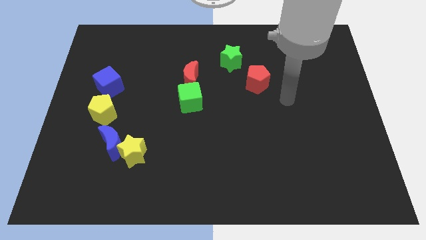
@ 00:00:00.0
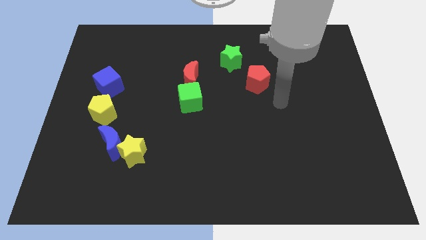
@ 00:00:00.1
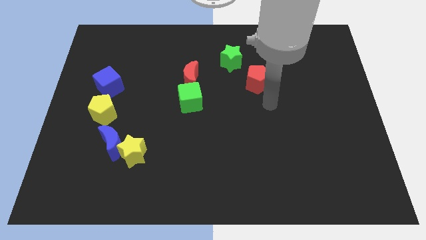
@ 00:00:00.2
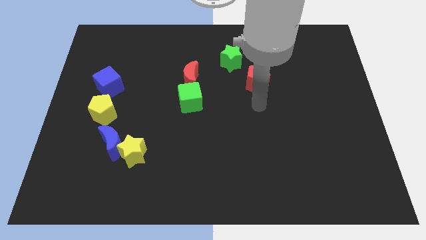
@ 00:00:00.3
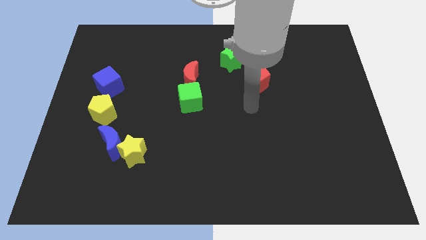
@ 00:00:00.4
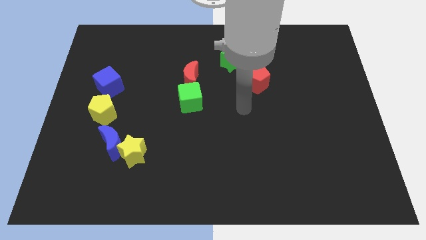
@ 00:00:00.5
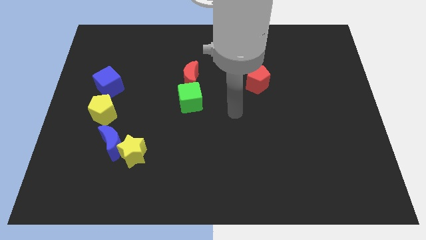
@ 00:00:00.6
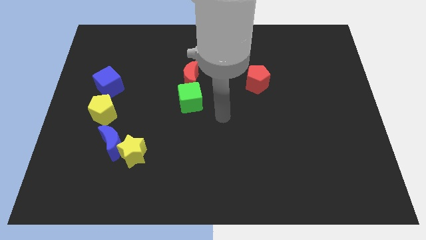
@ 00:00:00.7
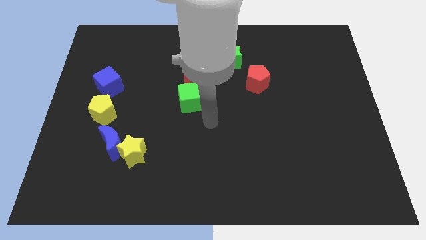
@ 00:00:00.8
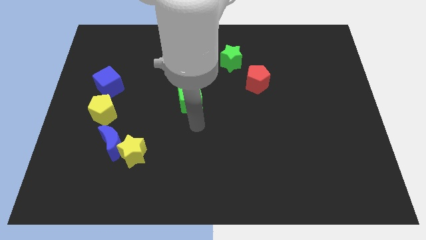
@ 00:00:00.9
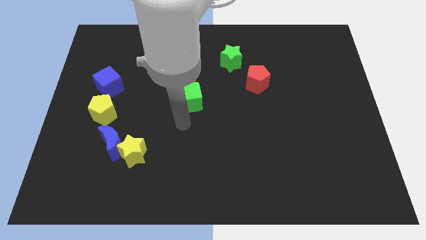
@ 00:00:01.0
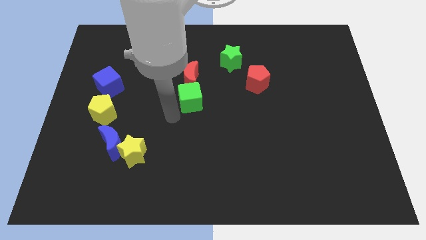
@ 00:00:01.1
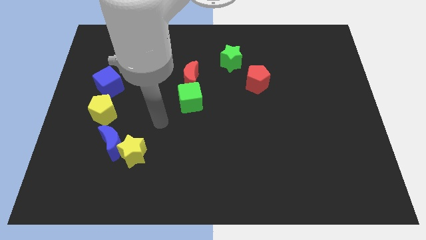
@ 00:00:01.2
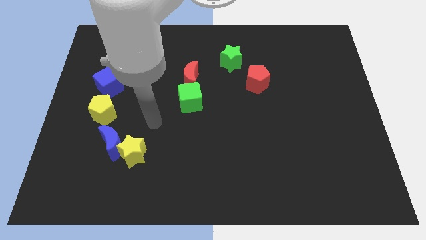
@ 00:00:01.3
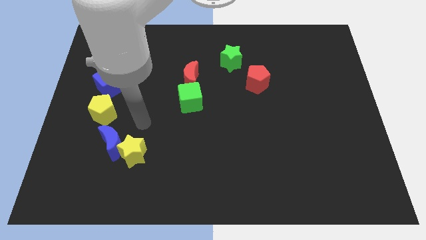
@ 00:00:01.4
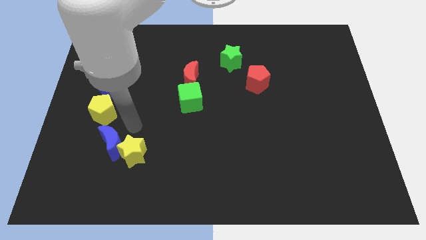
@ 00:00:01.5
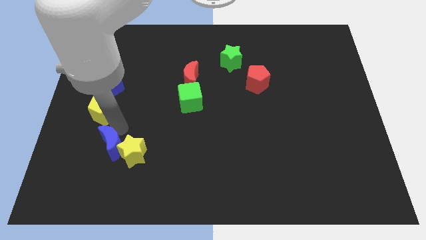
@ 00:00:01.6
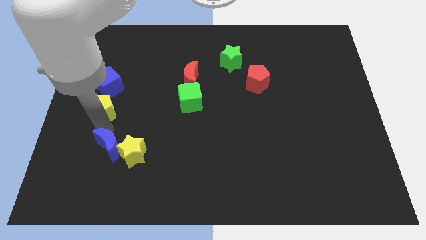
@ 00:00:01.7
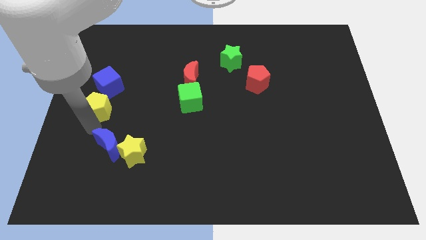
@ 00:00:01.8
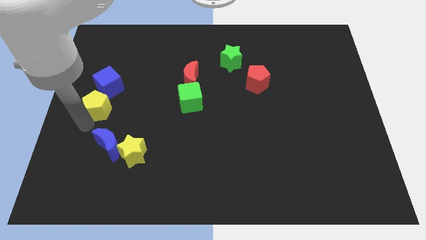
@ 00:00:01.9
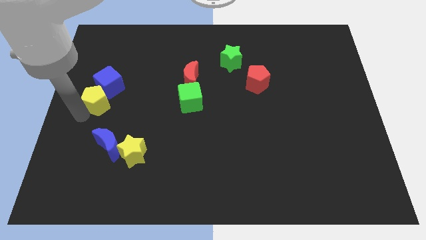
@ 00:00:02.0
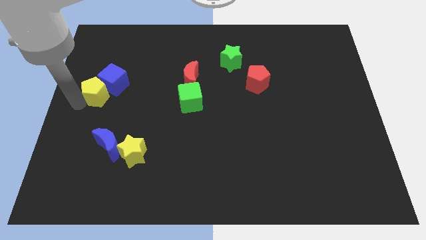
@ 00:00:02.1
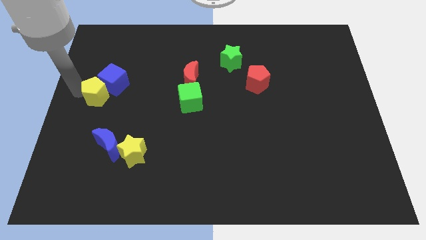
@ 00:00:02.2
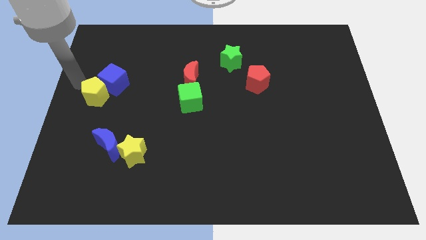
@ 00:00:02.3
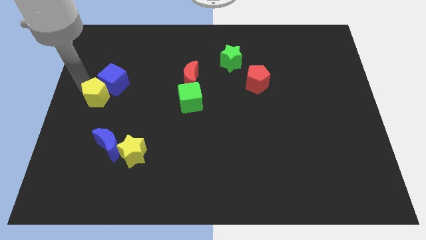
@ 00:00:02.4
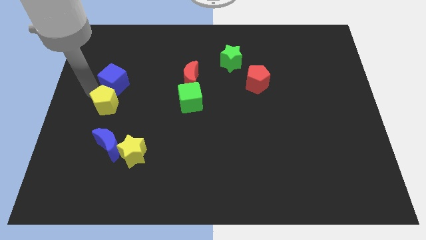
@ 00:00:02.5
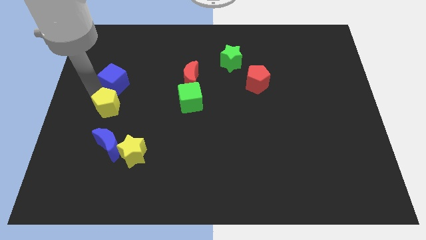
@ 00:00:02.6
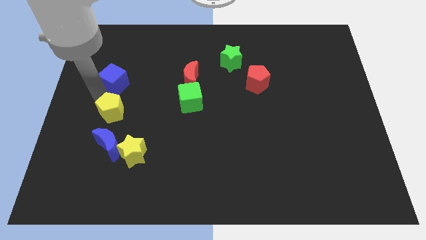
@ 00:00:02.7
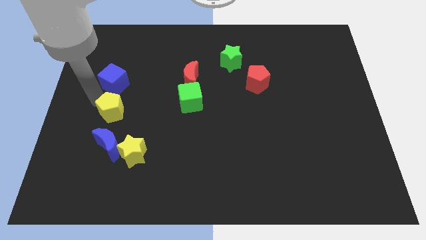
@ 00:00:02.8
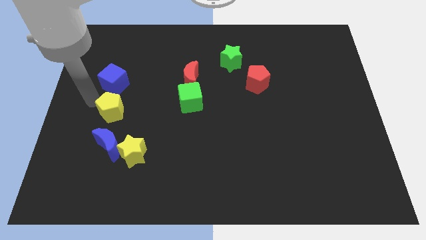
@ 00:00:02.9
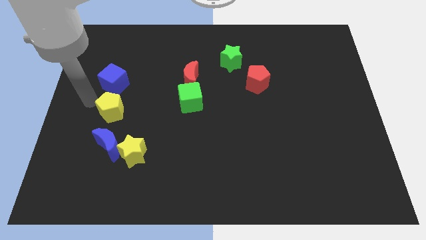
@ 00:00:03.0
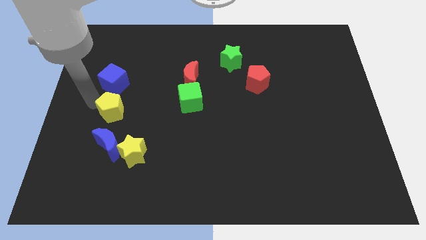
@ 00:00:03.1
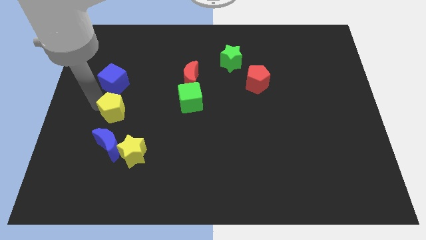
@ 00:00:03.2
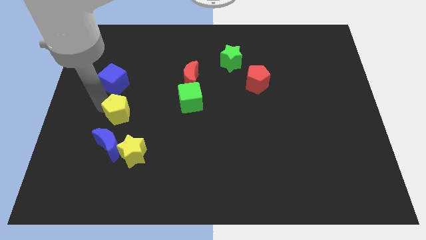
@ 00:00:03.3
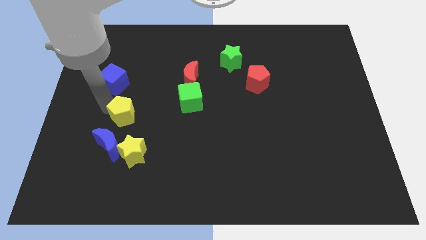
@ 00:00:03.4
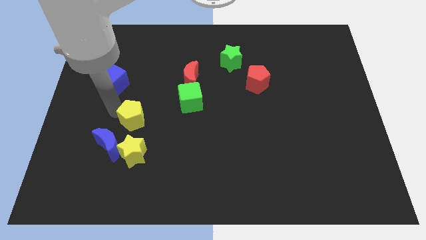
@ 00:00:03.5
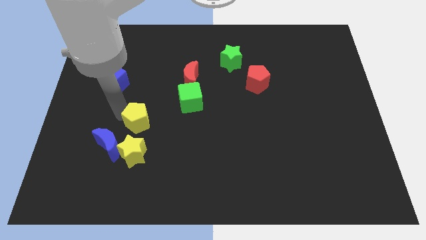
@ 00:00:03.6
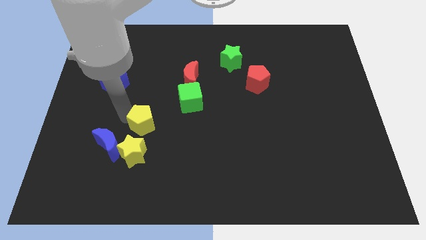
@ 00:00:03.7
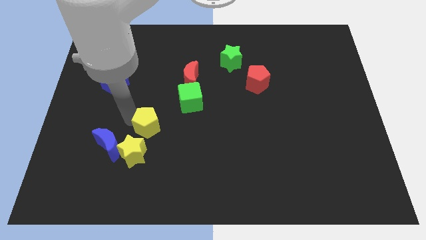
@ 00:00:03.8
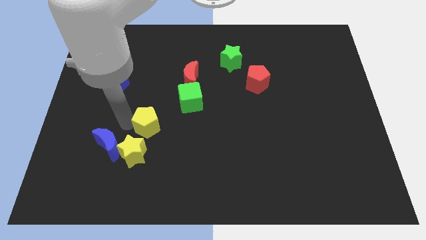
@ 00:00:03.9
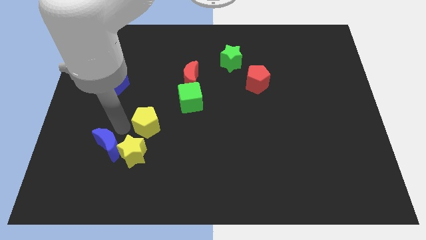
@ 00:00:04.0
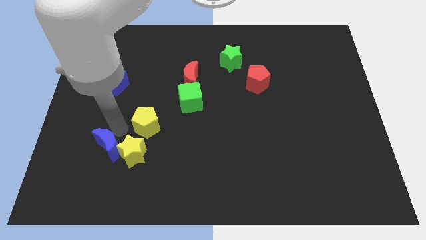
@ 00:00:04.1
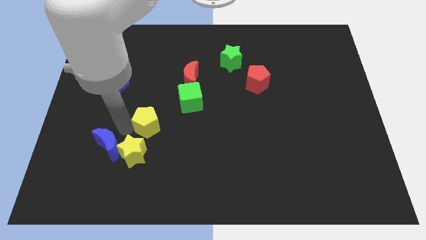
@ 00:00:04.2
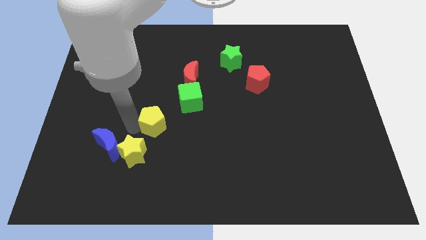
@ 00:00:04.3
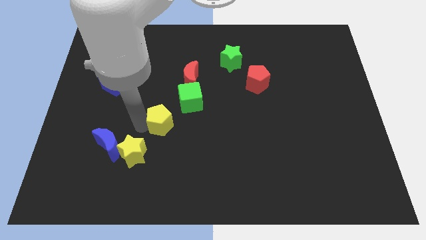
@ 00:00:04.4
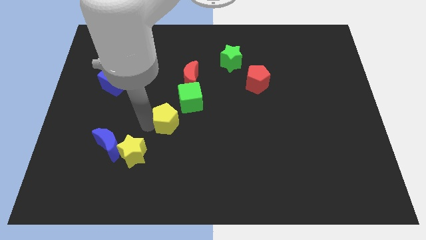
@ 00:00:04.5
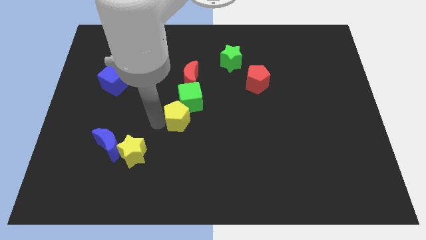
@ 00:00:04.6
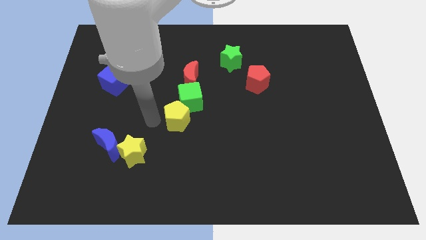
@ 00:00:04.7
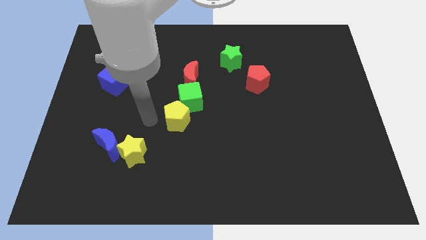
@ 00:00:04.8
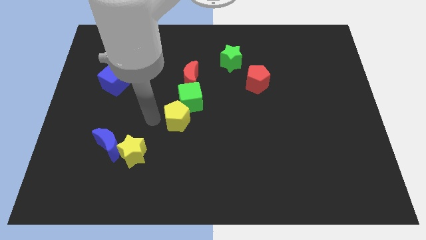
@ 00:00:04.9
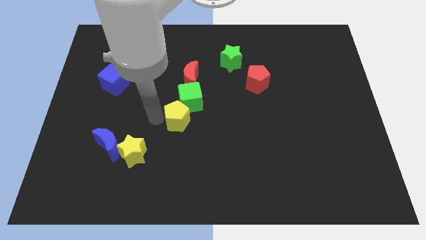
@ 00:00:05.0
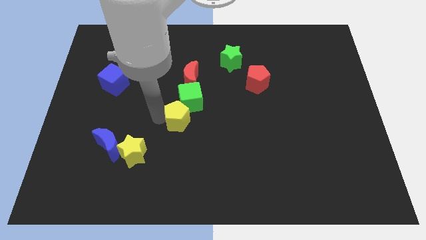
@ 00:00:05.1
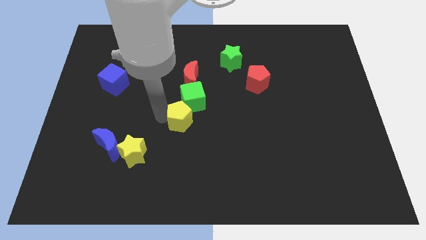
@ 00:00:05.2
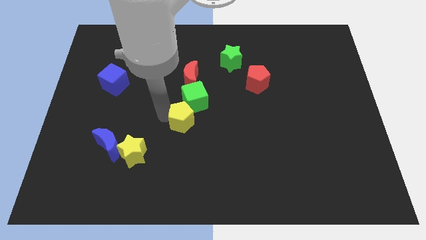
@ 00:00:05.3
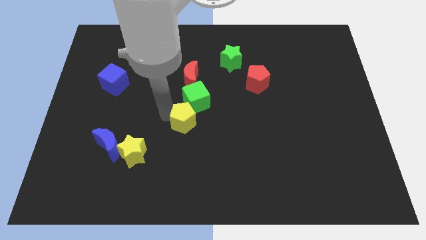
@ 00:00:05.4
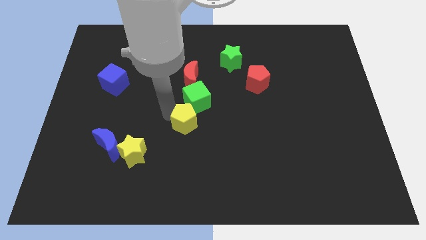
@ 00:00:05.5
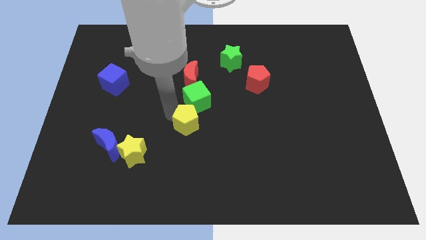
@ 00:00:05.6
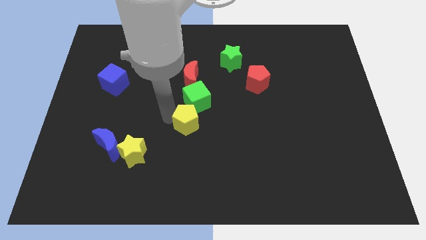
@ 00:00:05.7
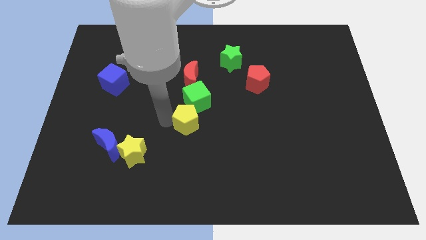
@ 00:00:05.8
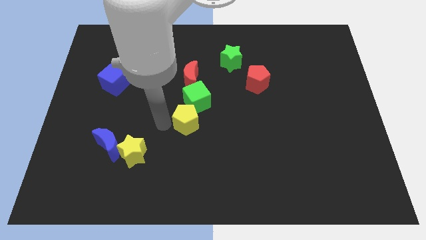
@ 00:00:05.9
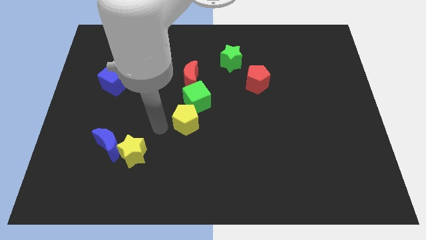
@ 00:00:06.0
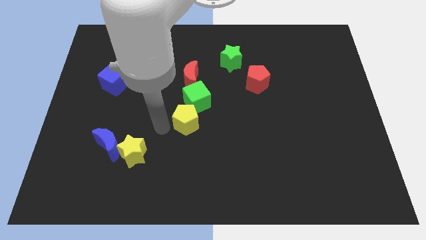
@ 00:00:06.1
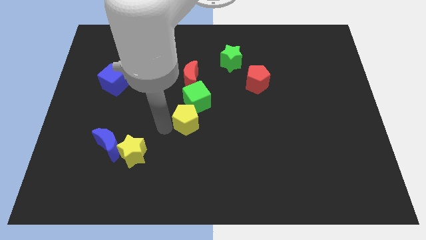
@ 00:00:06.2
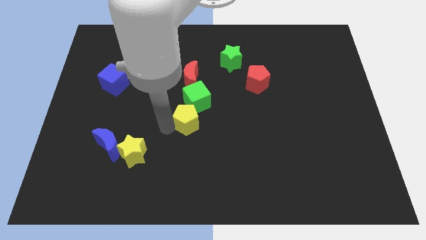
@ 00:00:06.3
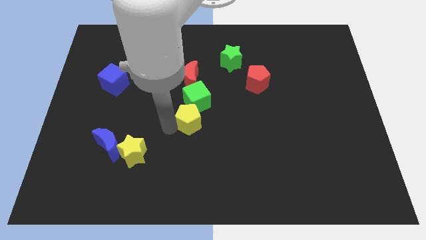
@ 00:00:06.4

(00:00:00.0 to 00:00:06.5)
slide the yellow pentagon right

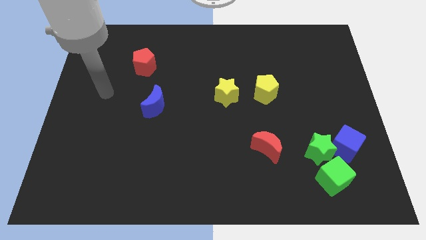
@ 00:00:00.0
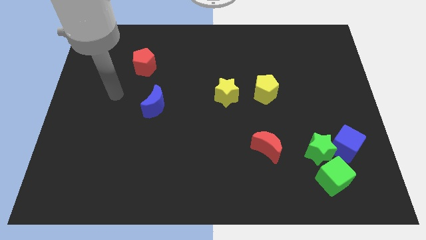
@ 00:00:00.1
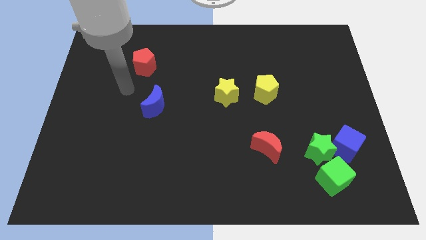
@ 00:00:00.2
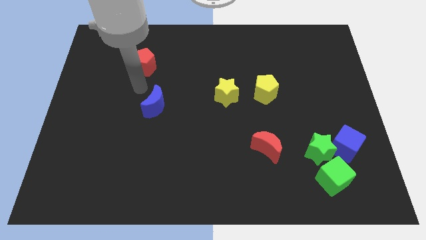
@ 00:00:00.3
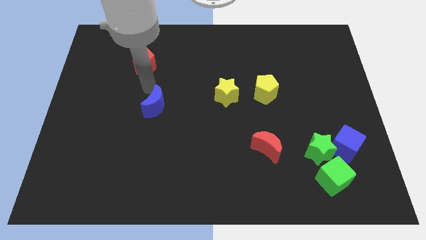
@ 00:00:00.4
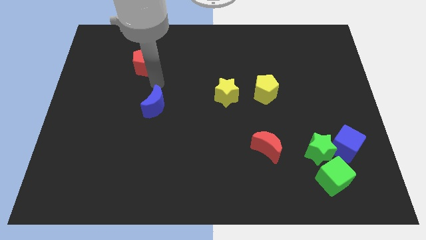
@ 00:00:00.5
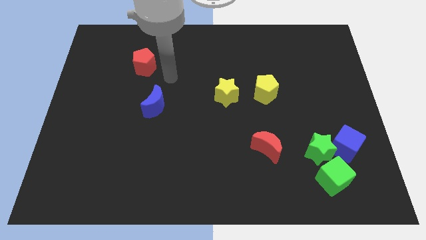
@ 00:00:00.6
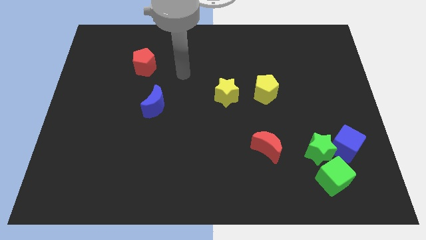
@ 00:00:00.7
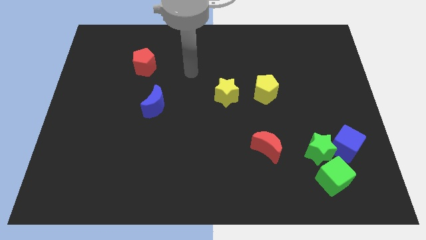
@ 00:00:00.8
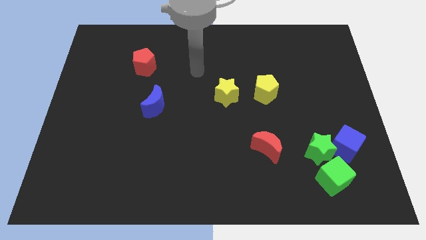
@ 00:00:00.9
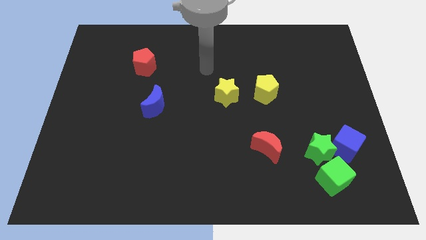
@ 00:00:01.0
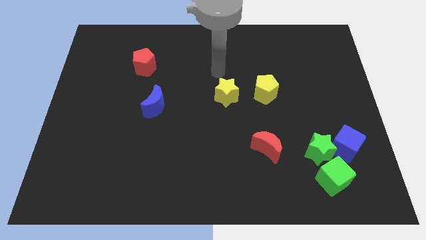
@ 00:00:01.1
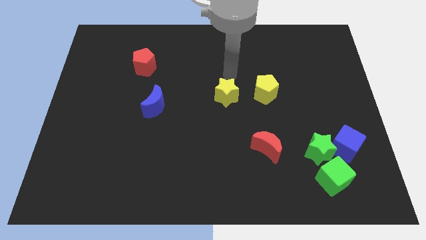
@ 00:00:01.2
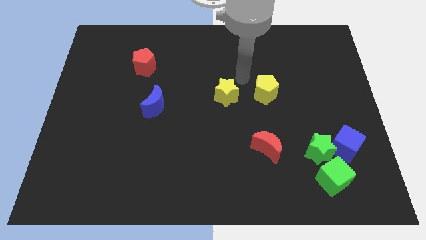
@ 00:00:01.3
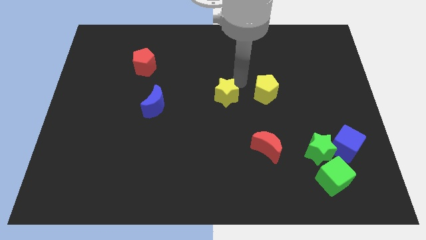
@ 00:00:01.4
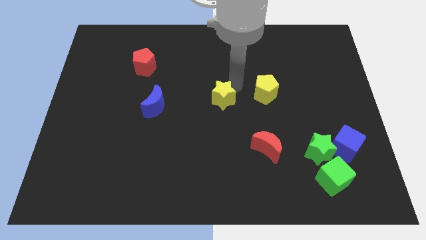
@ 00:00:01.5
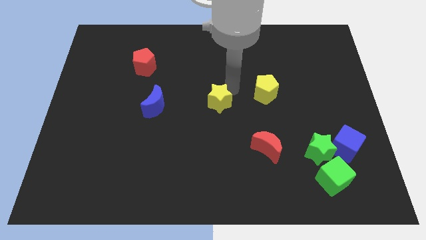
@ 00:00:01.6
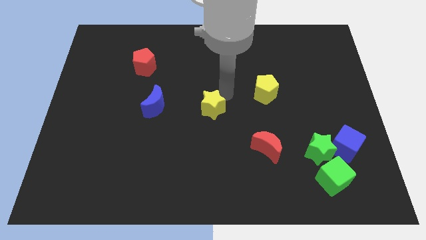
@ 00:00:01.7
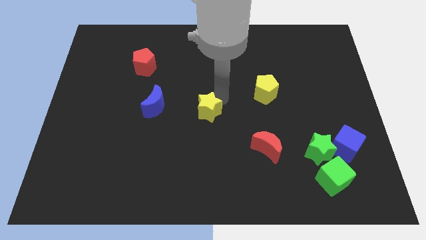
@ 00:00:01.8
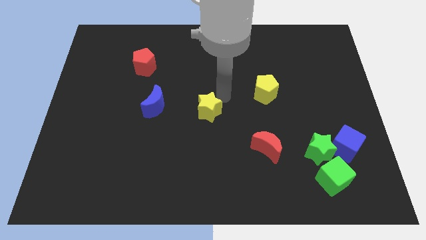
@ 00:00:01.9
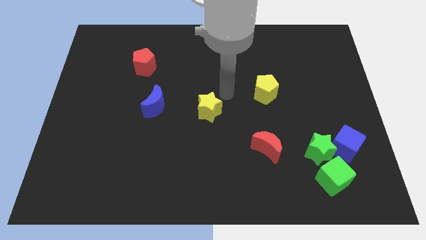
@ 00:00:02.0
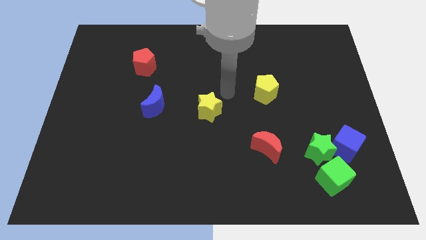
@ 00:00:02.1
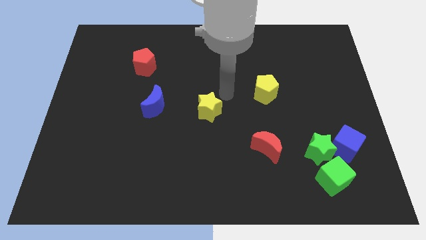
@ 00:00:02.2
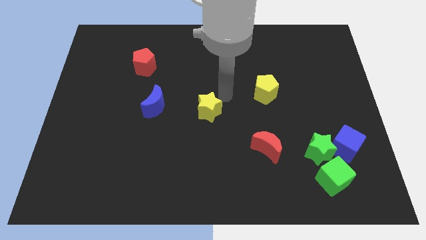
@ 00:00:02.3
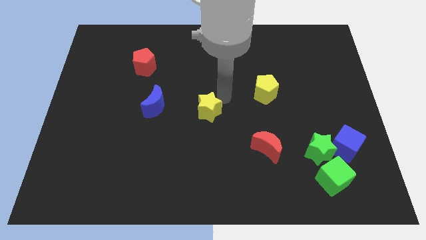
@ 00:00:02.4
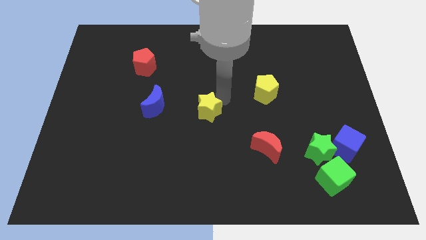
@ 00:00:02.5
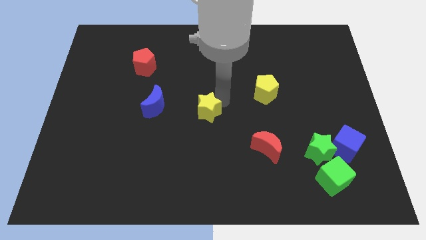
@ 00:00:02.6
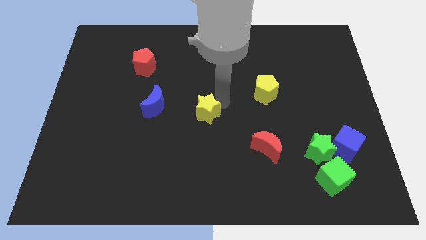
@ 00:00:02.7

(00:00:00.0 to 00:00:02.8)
push the yellow star down and then to the left a little
